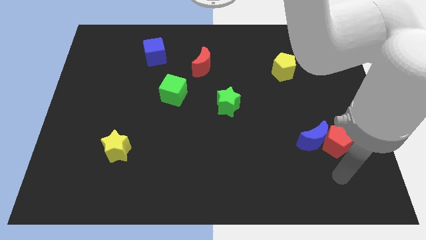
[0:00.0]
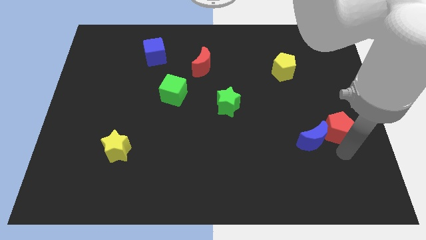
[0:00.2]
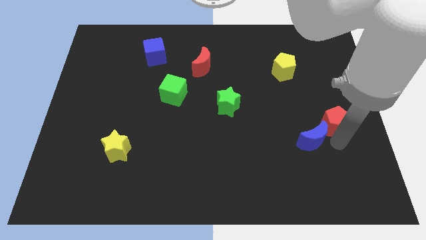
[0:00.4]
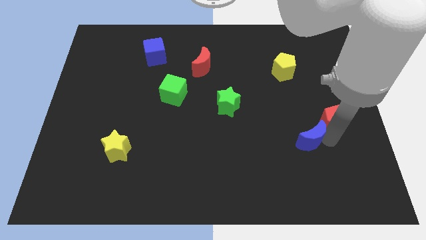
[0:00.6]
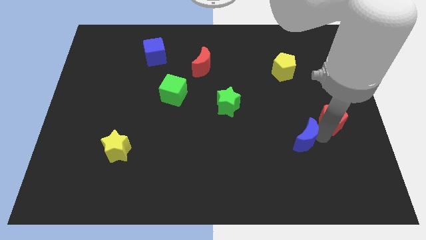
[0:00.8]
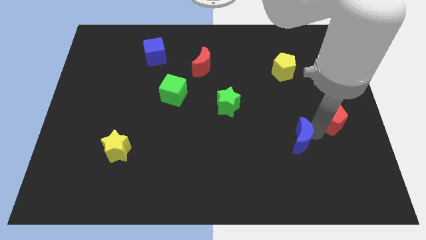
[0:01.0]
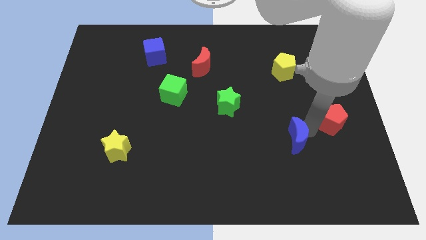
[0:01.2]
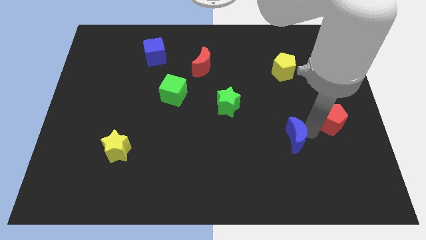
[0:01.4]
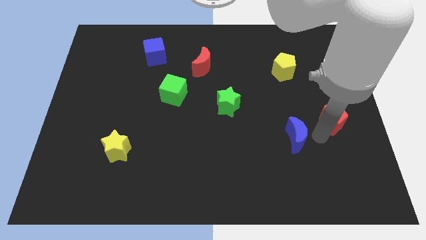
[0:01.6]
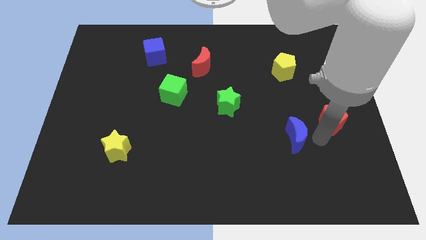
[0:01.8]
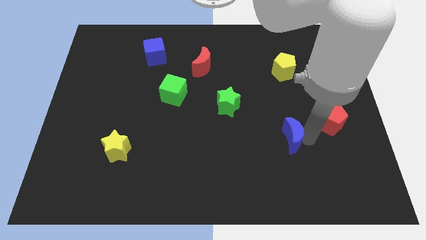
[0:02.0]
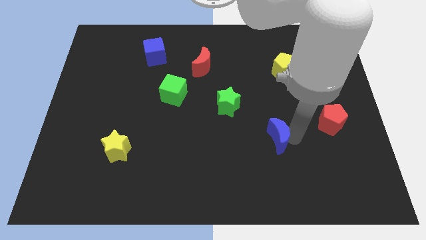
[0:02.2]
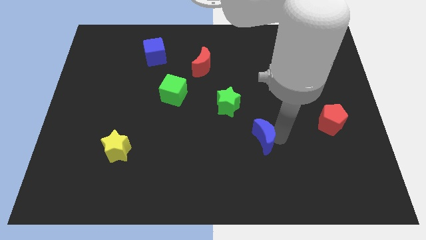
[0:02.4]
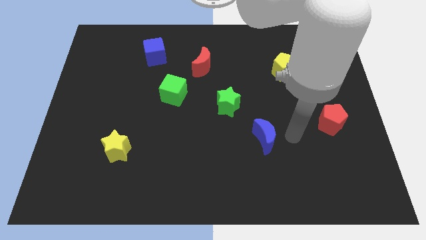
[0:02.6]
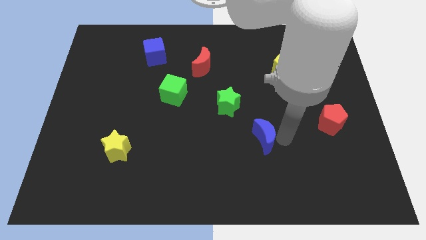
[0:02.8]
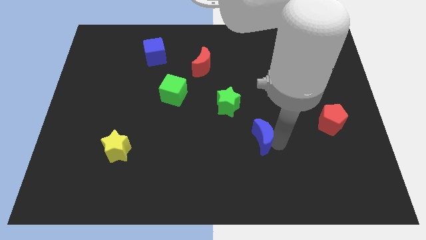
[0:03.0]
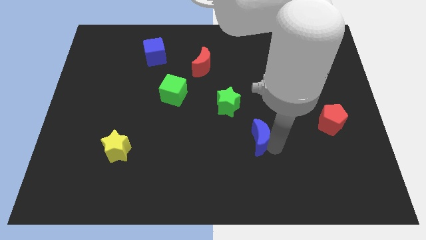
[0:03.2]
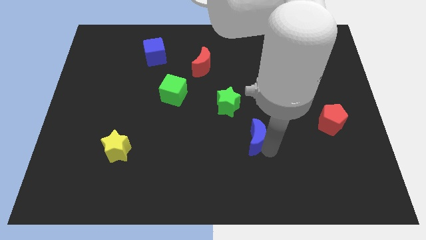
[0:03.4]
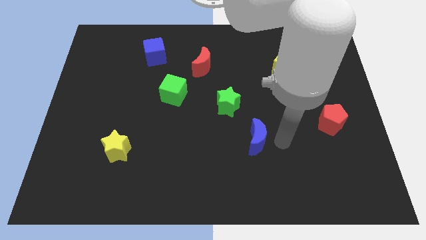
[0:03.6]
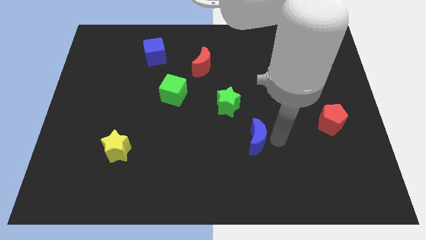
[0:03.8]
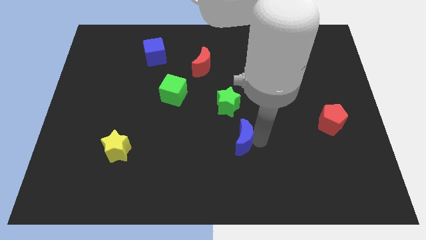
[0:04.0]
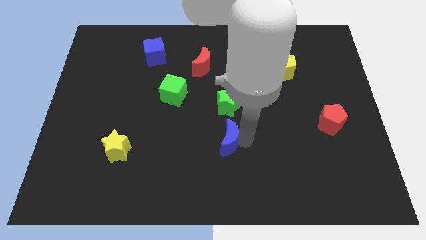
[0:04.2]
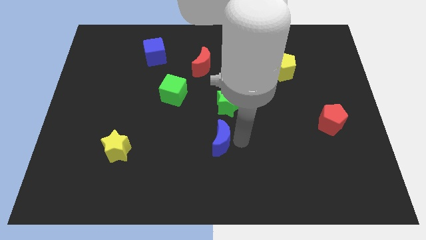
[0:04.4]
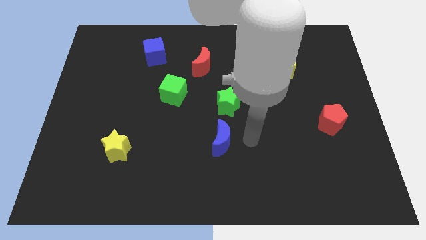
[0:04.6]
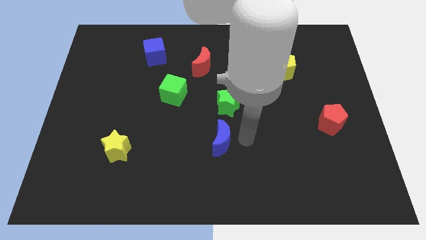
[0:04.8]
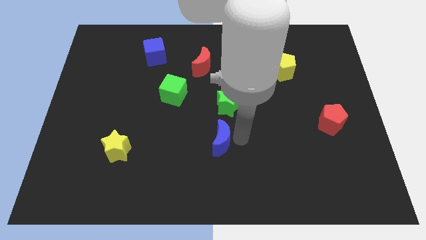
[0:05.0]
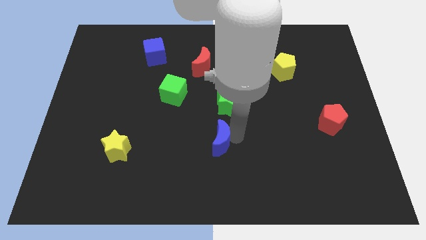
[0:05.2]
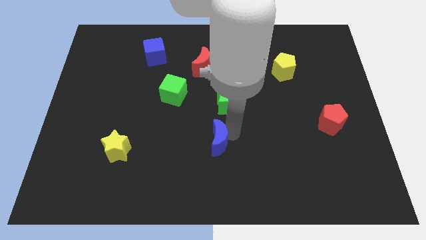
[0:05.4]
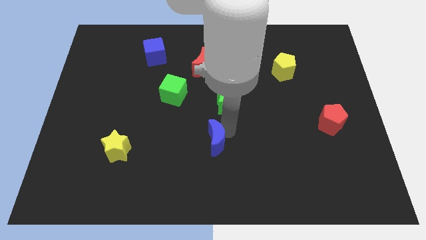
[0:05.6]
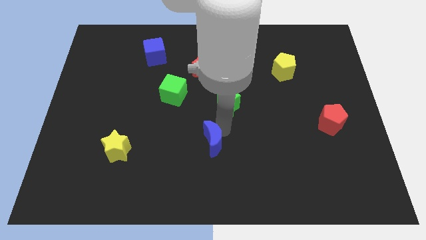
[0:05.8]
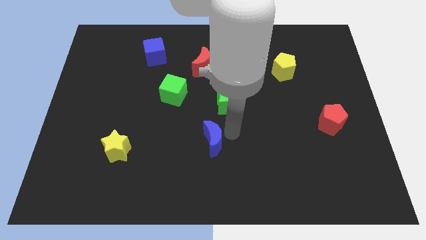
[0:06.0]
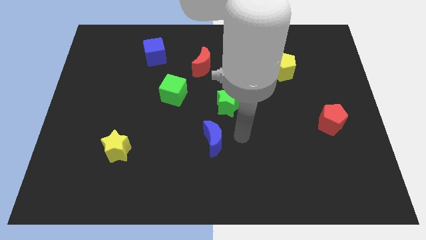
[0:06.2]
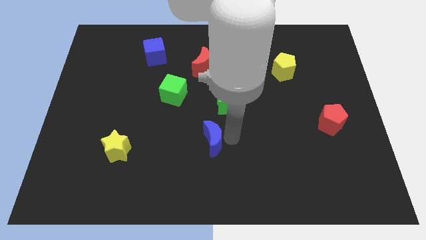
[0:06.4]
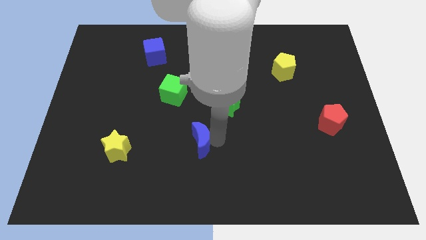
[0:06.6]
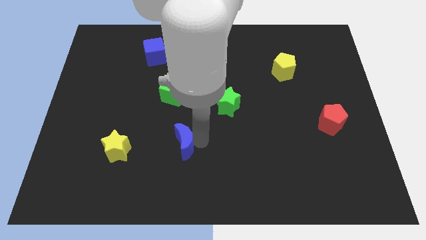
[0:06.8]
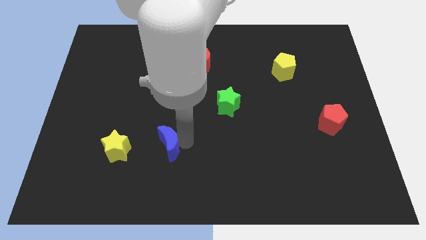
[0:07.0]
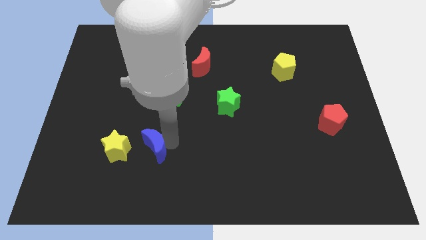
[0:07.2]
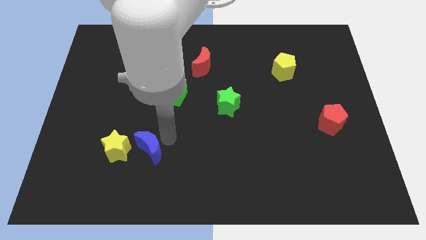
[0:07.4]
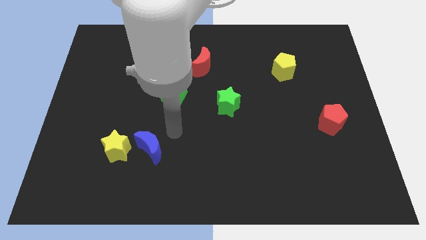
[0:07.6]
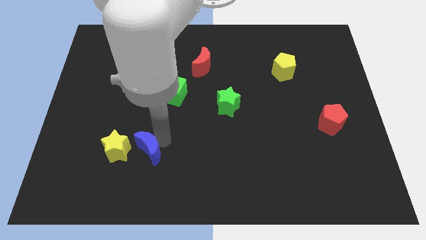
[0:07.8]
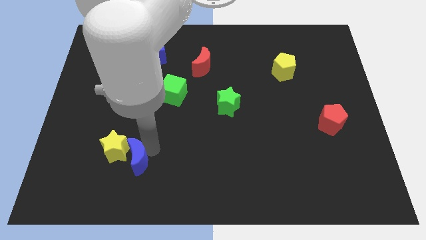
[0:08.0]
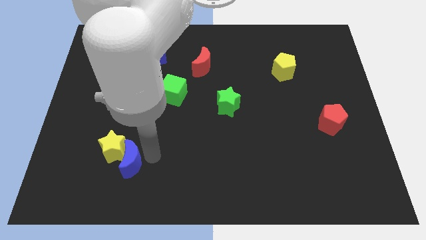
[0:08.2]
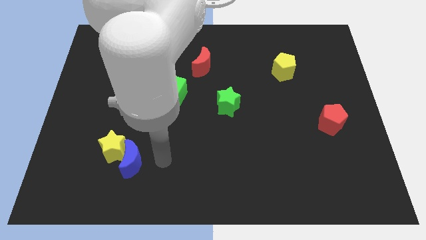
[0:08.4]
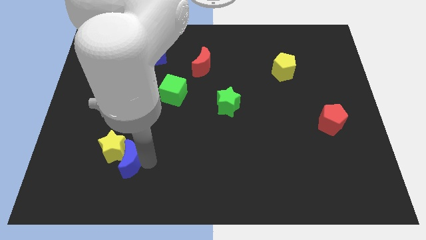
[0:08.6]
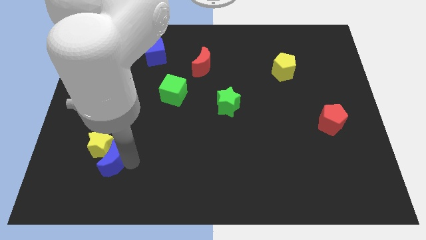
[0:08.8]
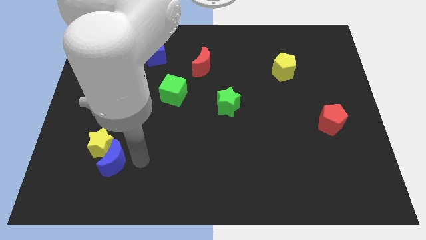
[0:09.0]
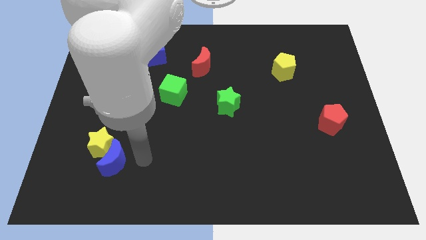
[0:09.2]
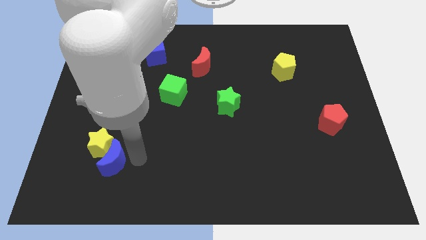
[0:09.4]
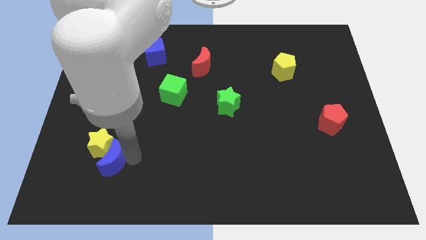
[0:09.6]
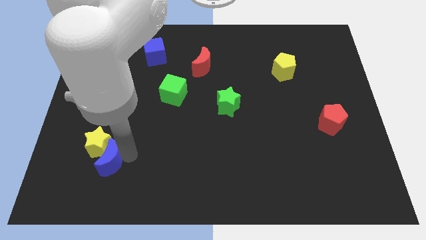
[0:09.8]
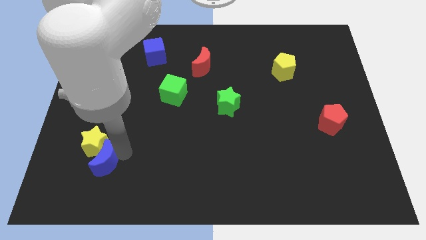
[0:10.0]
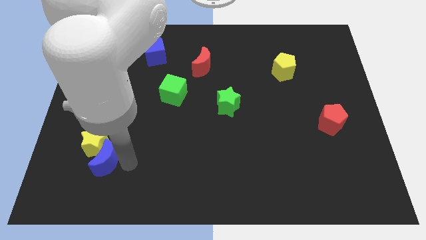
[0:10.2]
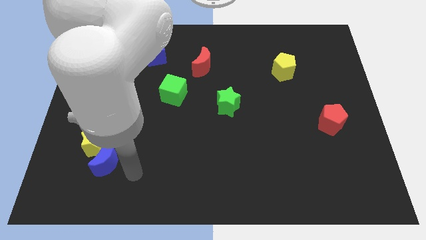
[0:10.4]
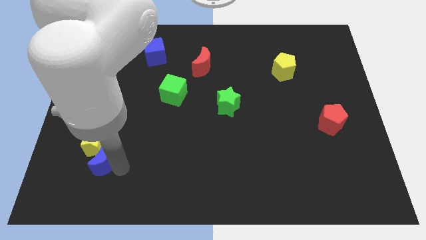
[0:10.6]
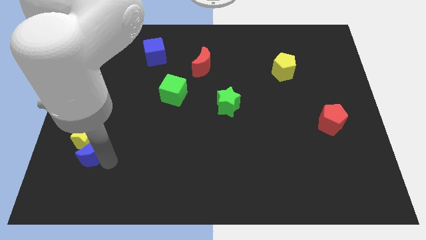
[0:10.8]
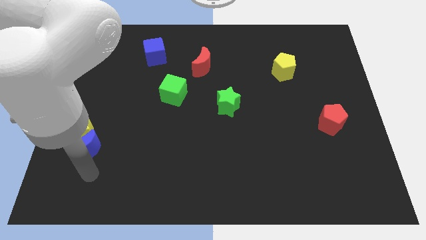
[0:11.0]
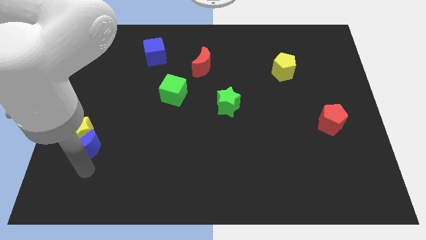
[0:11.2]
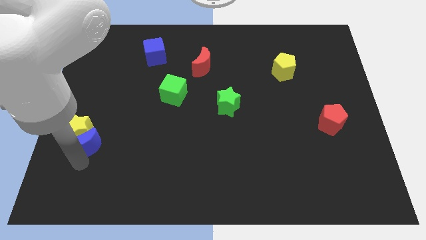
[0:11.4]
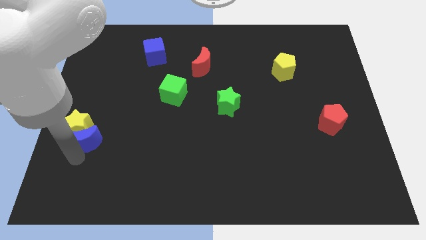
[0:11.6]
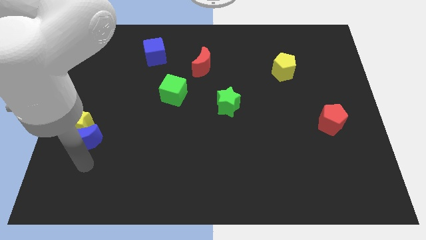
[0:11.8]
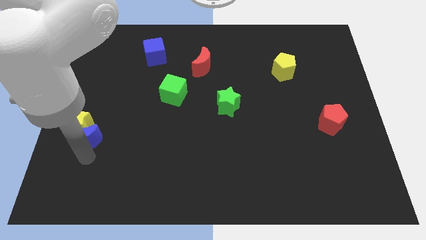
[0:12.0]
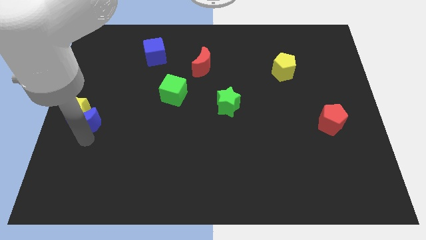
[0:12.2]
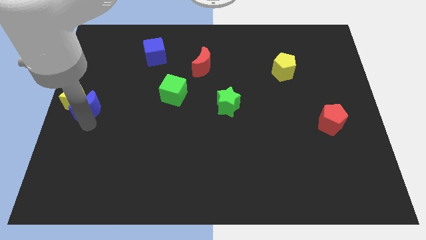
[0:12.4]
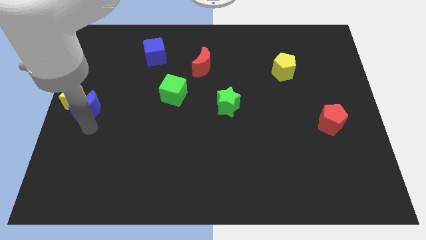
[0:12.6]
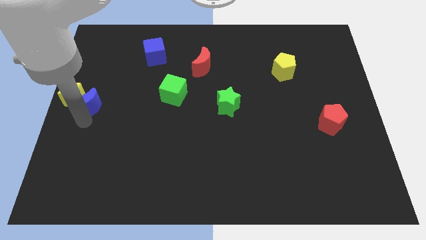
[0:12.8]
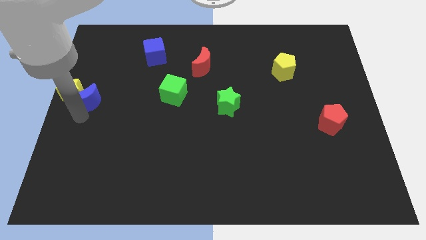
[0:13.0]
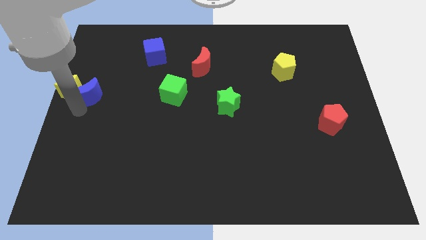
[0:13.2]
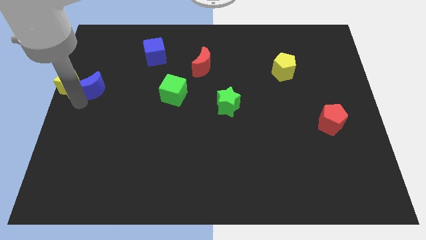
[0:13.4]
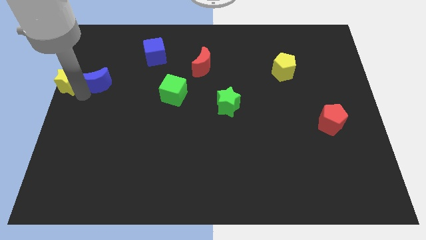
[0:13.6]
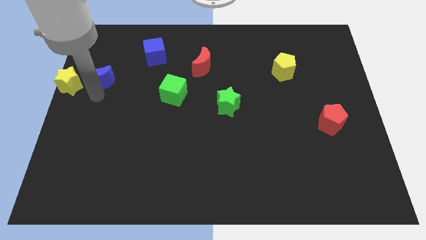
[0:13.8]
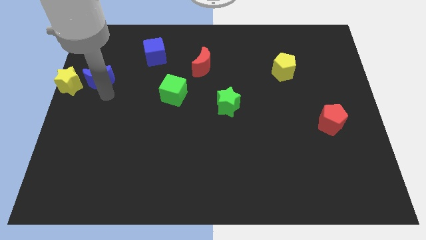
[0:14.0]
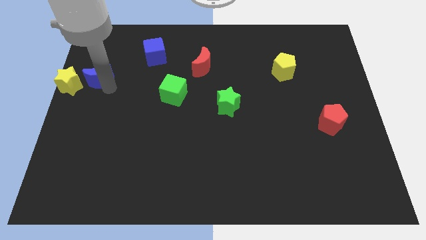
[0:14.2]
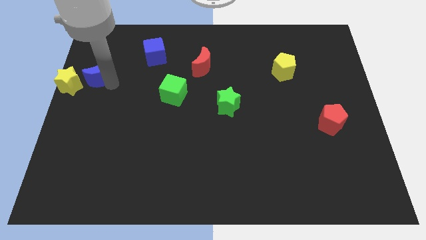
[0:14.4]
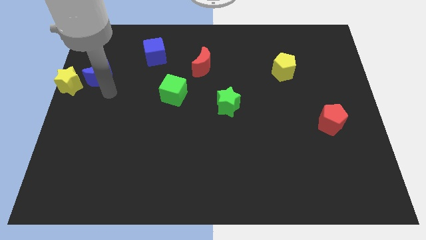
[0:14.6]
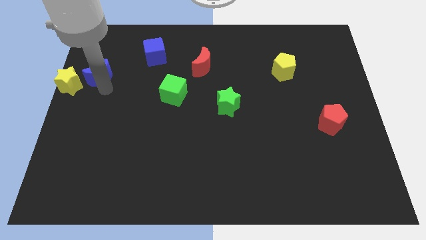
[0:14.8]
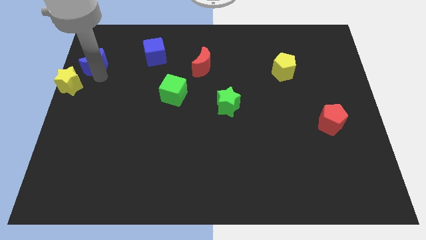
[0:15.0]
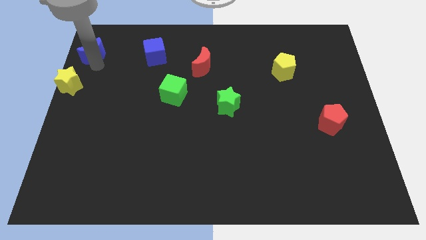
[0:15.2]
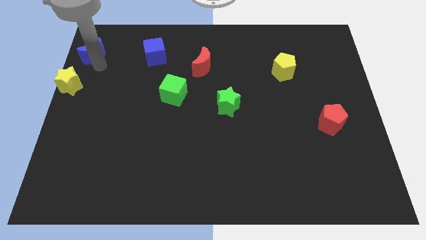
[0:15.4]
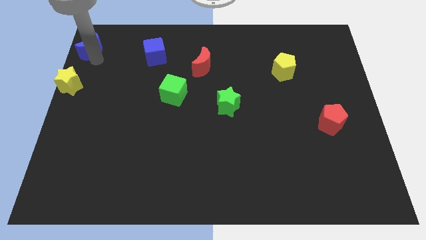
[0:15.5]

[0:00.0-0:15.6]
push the blue moon to the top left
